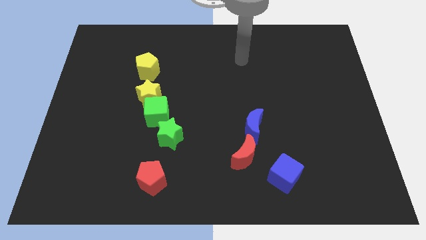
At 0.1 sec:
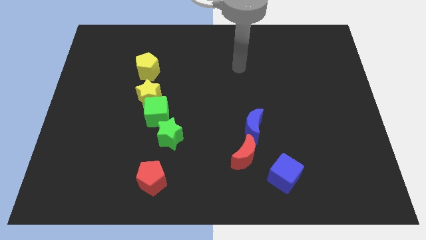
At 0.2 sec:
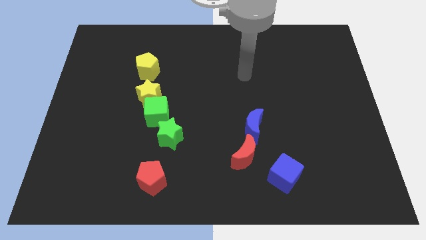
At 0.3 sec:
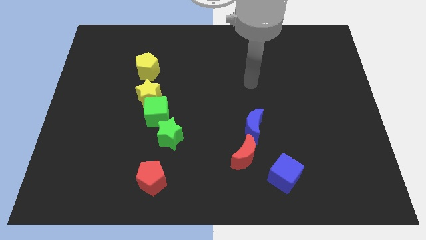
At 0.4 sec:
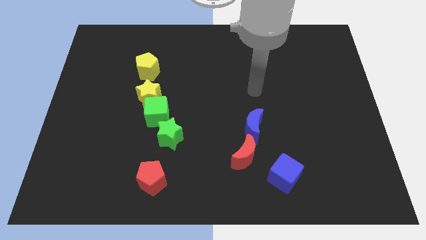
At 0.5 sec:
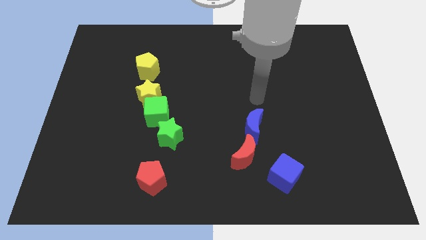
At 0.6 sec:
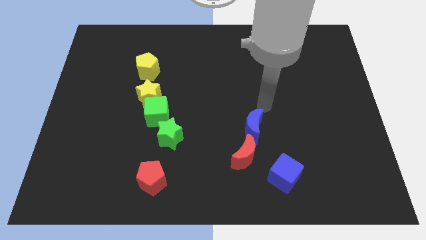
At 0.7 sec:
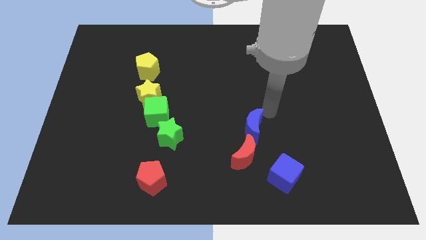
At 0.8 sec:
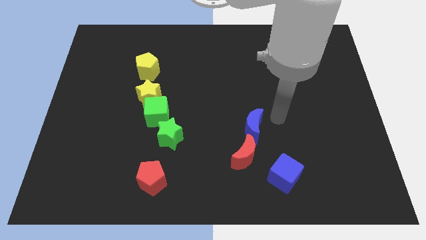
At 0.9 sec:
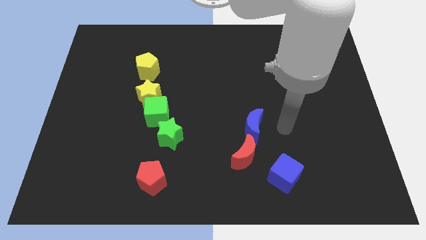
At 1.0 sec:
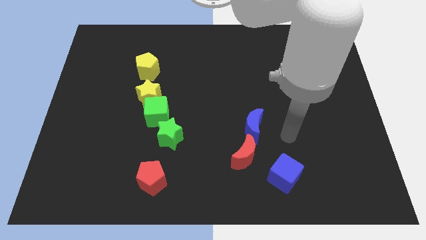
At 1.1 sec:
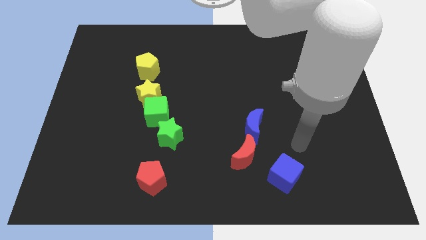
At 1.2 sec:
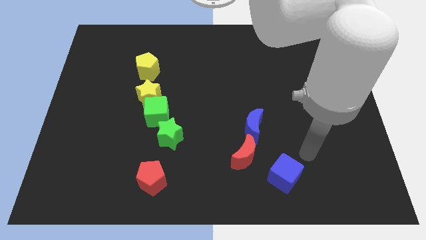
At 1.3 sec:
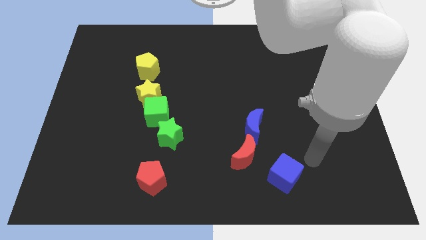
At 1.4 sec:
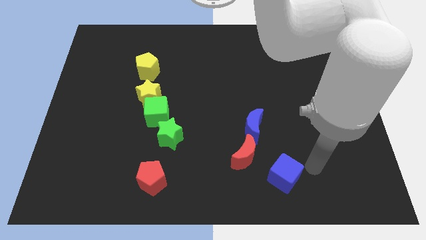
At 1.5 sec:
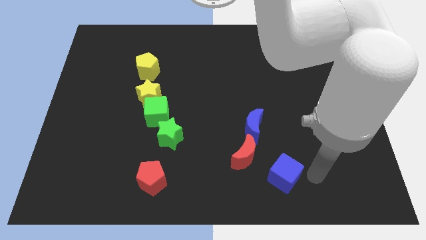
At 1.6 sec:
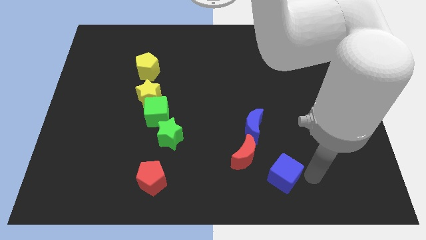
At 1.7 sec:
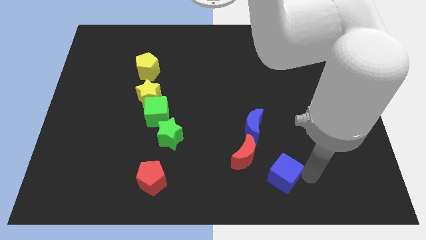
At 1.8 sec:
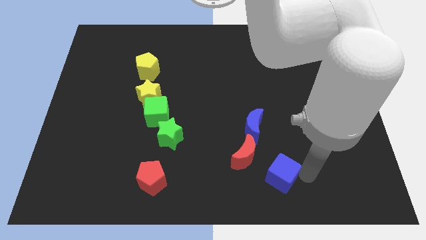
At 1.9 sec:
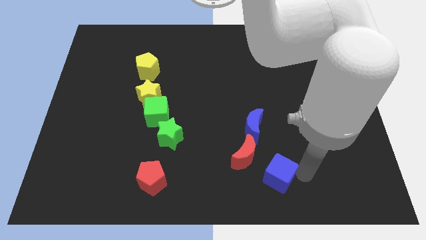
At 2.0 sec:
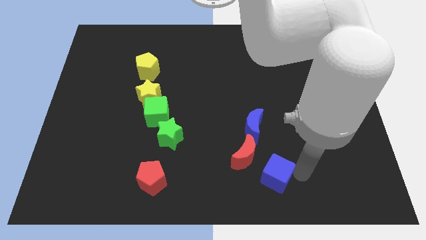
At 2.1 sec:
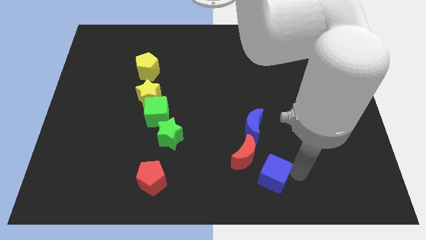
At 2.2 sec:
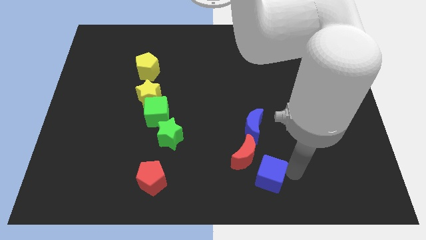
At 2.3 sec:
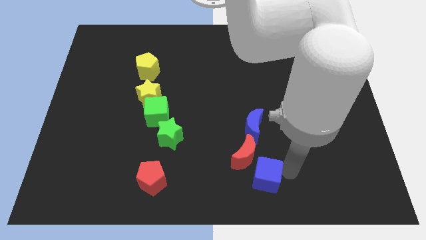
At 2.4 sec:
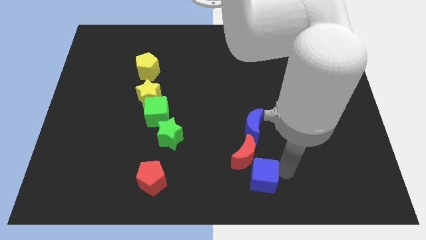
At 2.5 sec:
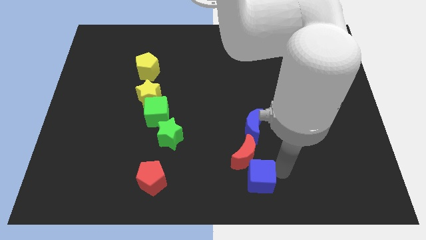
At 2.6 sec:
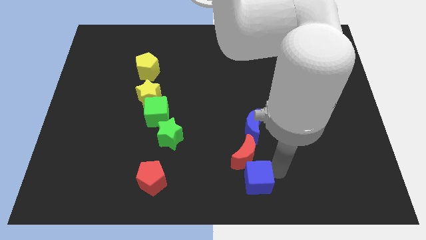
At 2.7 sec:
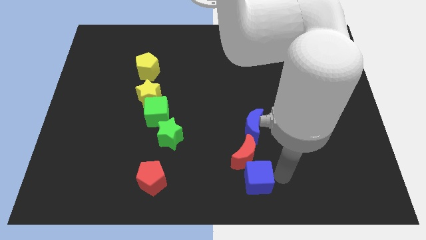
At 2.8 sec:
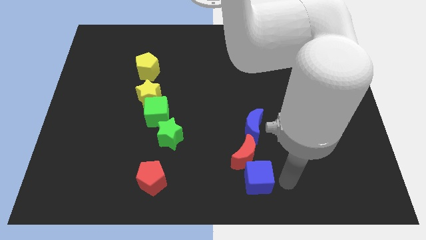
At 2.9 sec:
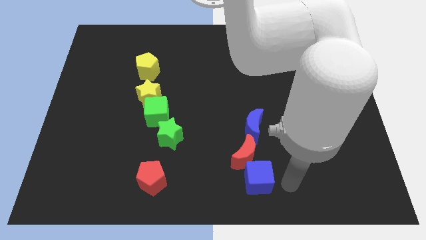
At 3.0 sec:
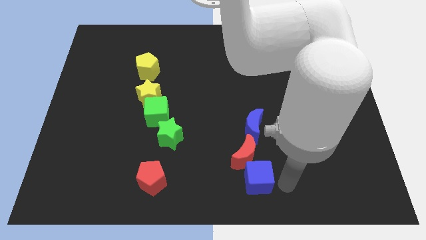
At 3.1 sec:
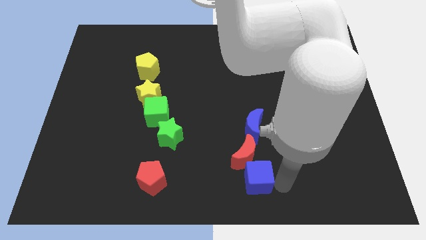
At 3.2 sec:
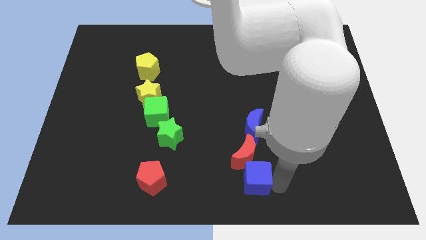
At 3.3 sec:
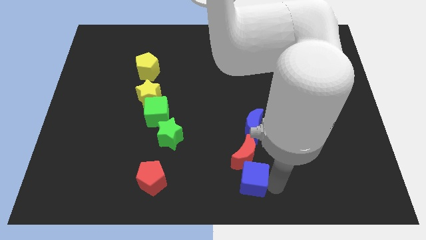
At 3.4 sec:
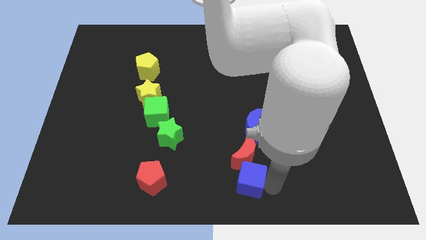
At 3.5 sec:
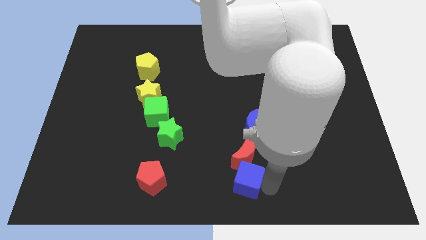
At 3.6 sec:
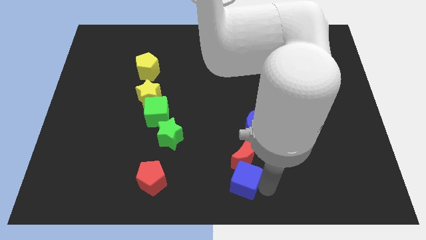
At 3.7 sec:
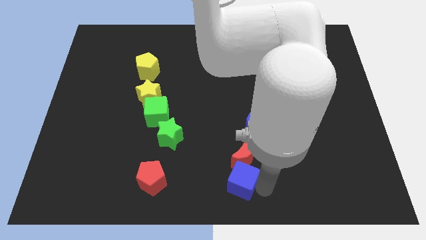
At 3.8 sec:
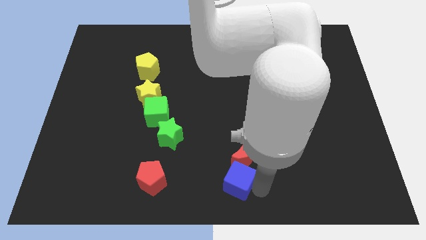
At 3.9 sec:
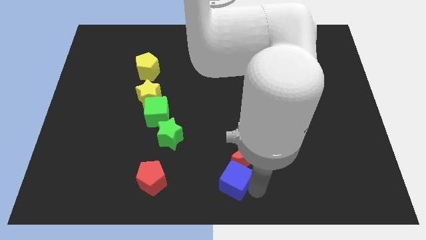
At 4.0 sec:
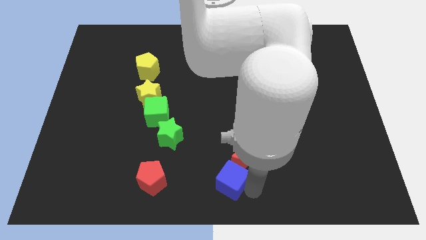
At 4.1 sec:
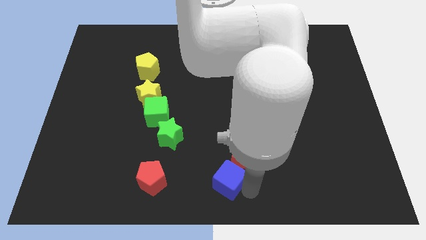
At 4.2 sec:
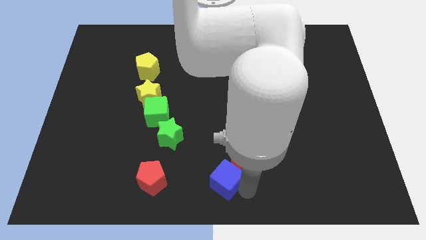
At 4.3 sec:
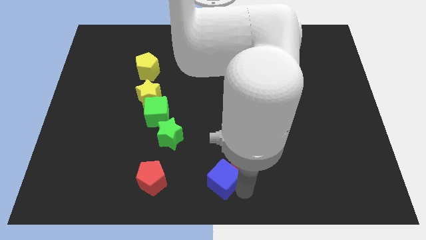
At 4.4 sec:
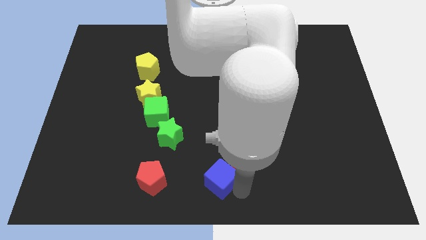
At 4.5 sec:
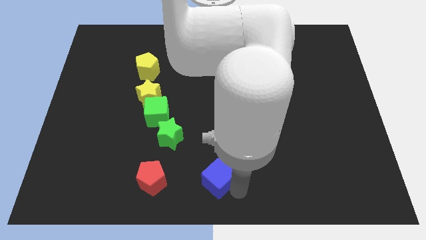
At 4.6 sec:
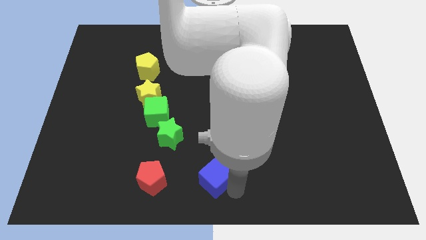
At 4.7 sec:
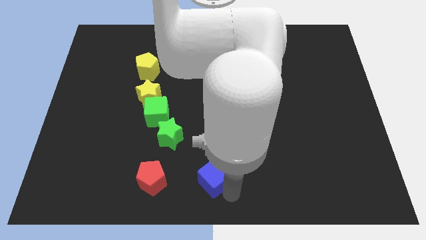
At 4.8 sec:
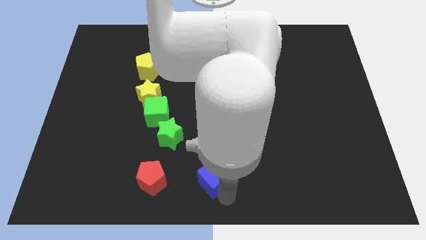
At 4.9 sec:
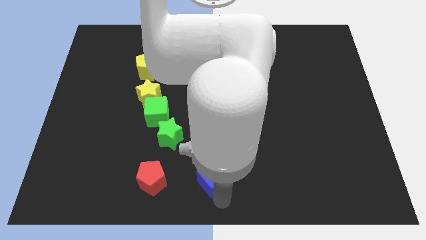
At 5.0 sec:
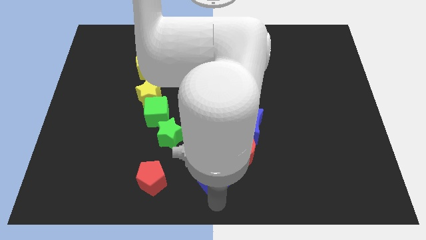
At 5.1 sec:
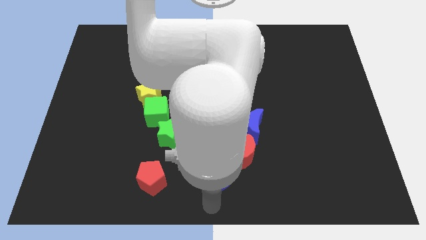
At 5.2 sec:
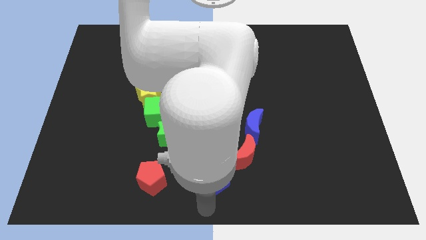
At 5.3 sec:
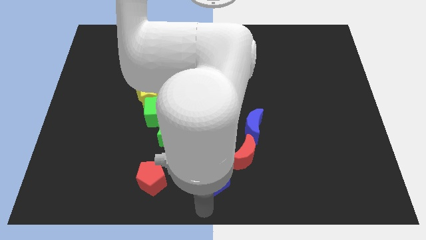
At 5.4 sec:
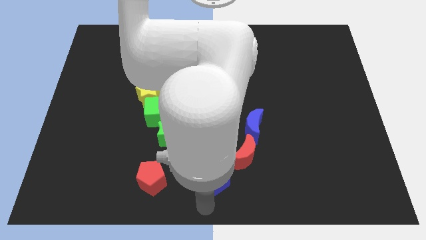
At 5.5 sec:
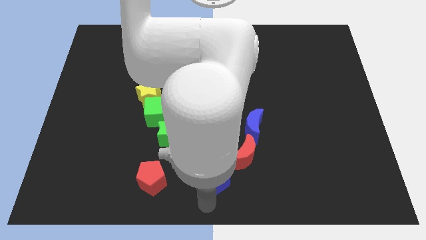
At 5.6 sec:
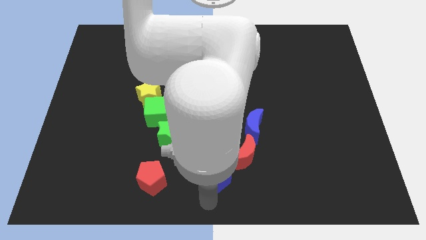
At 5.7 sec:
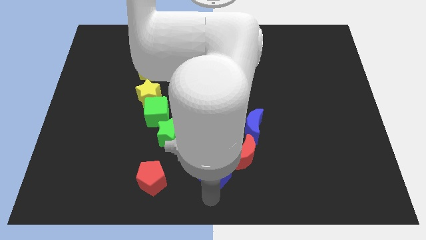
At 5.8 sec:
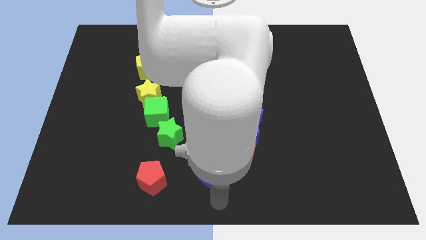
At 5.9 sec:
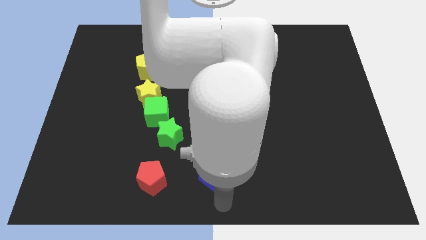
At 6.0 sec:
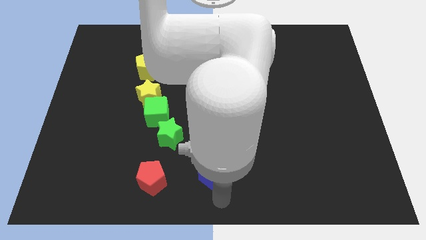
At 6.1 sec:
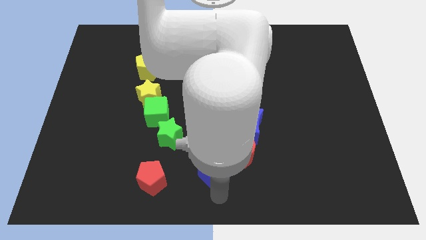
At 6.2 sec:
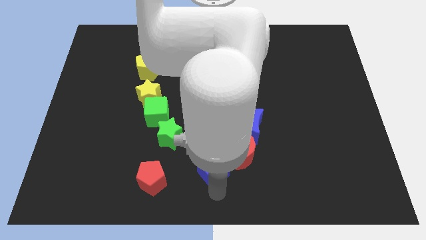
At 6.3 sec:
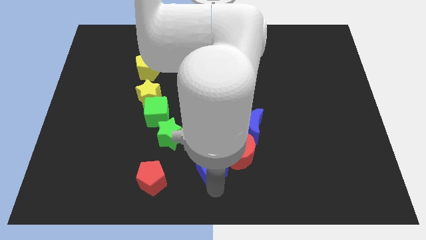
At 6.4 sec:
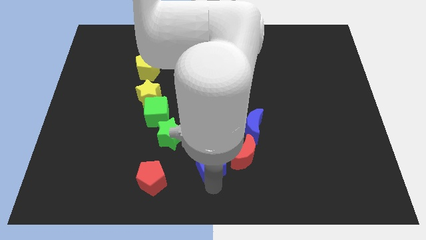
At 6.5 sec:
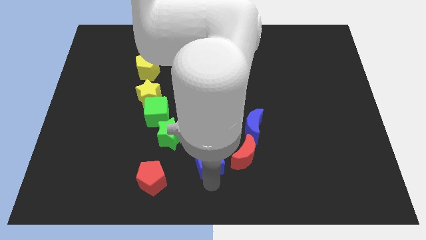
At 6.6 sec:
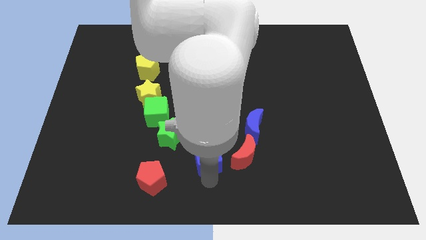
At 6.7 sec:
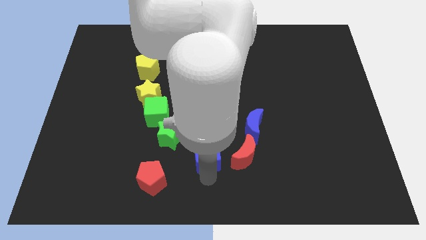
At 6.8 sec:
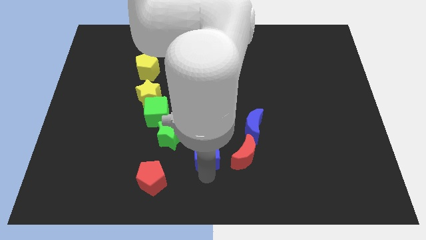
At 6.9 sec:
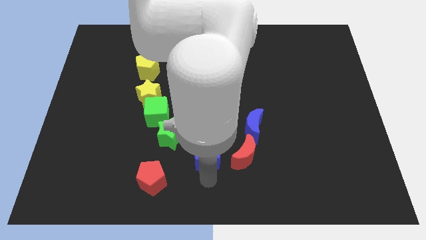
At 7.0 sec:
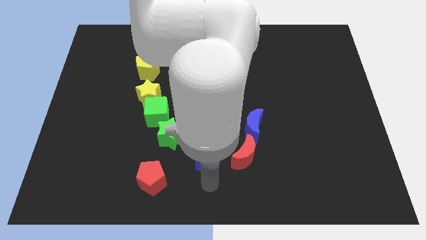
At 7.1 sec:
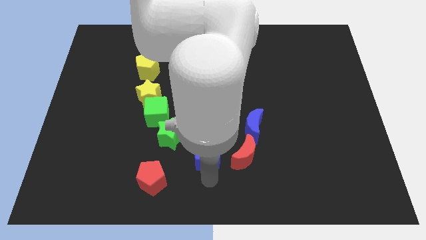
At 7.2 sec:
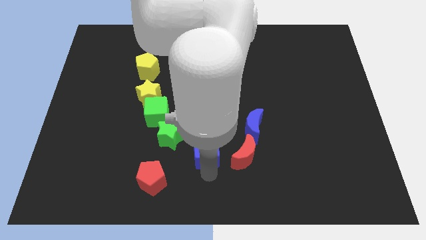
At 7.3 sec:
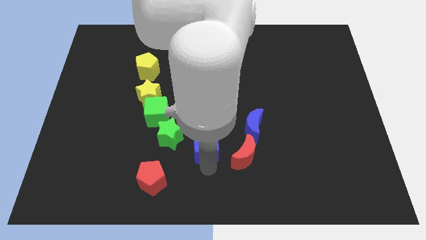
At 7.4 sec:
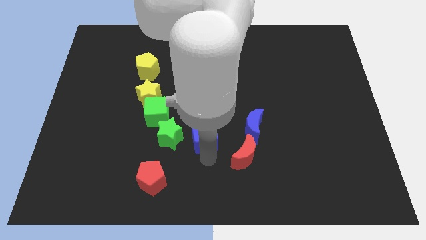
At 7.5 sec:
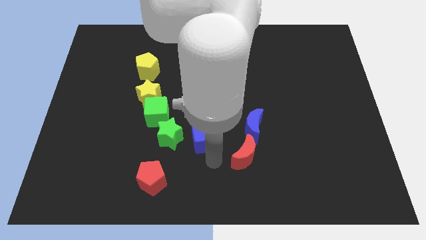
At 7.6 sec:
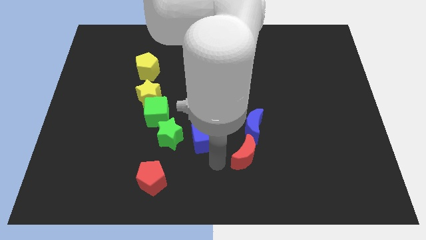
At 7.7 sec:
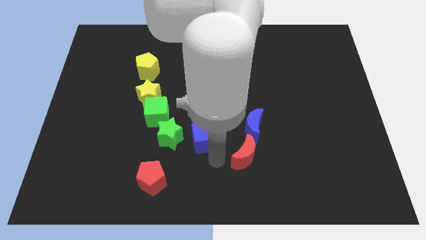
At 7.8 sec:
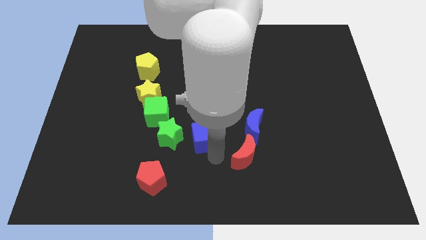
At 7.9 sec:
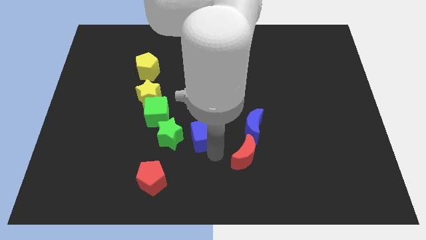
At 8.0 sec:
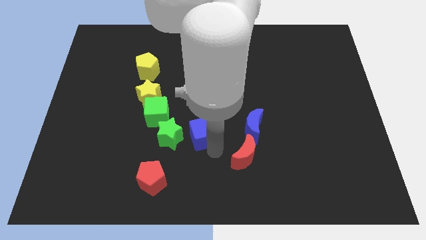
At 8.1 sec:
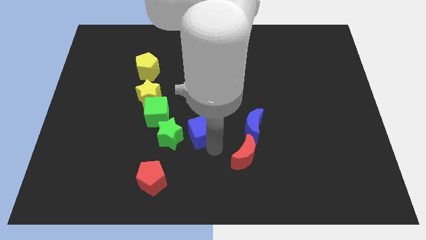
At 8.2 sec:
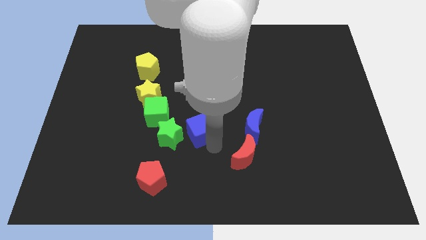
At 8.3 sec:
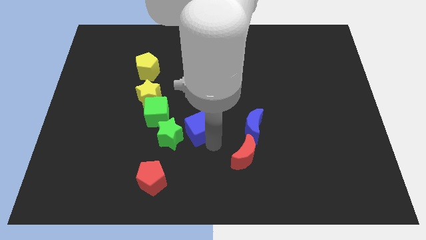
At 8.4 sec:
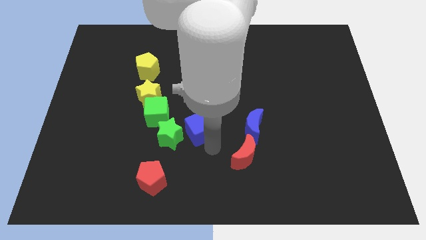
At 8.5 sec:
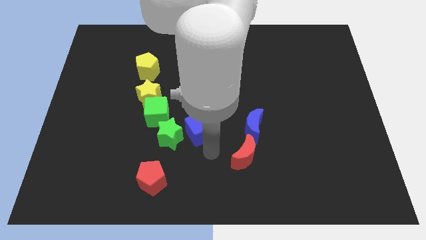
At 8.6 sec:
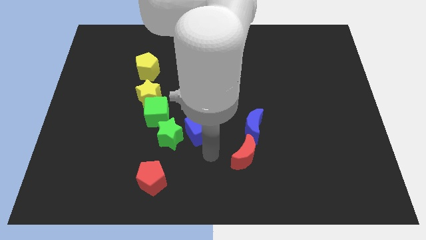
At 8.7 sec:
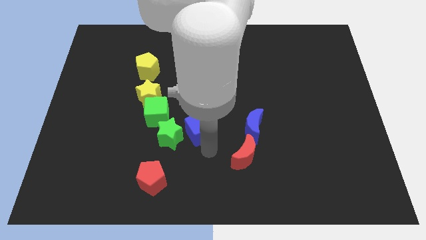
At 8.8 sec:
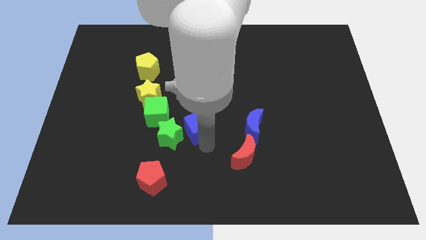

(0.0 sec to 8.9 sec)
slide the blue cube diagonally upwards and to the left
